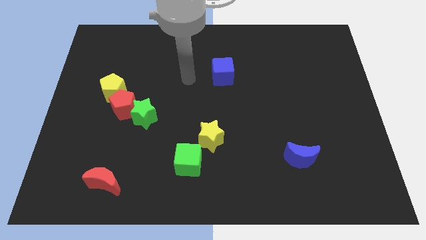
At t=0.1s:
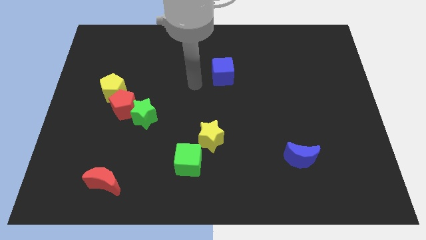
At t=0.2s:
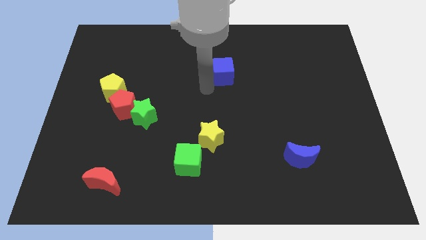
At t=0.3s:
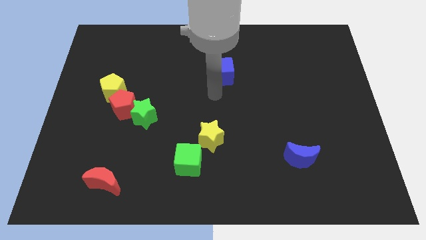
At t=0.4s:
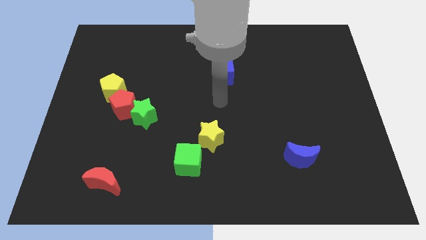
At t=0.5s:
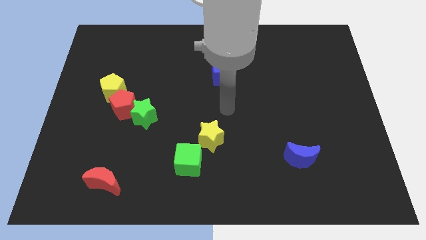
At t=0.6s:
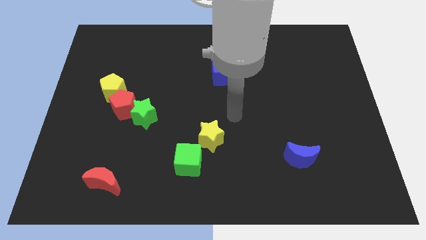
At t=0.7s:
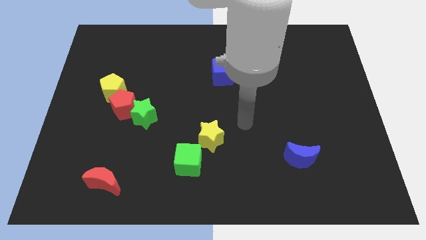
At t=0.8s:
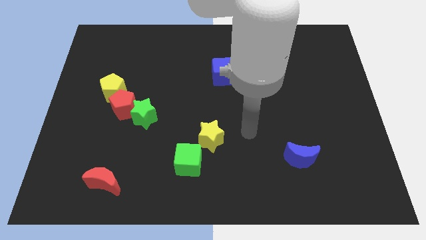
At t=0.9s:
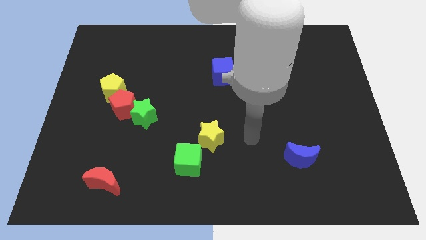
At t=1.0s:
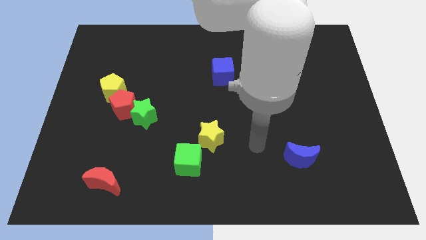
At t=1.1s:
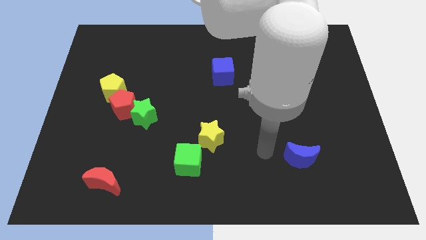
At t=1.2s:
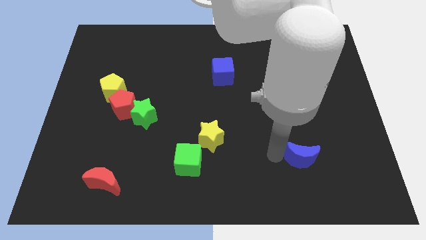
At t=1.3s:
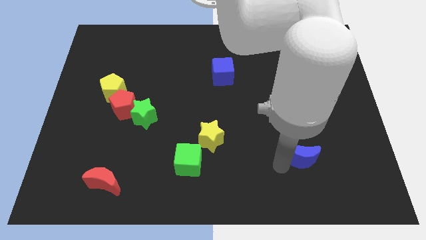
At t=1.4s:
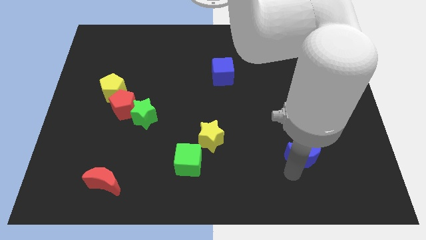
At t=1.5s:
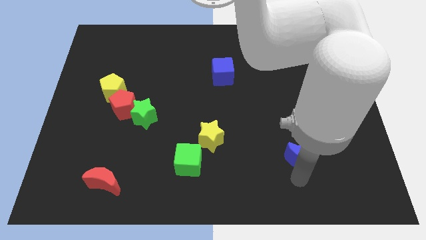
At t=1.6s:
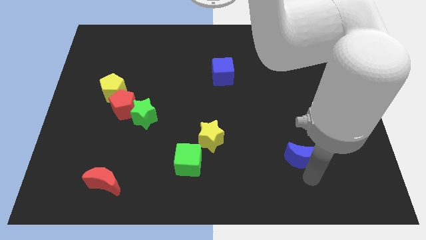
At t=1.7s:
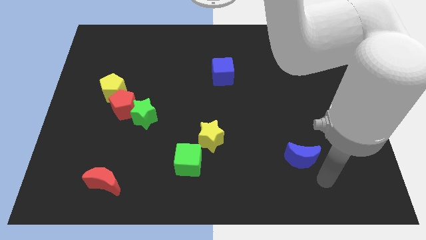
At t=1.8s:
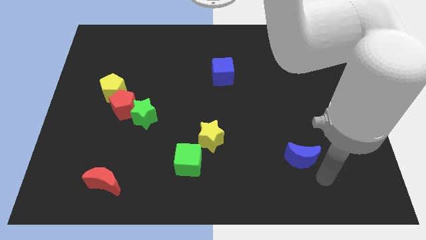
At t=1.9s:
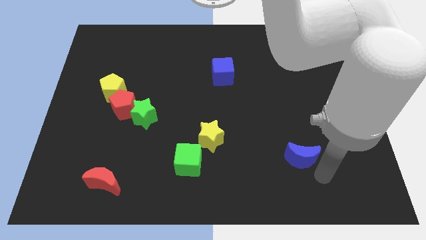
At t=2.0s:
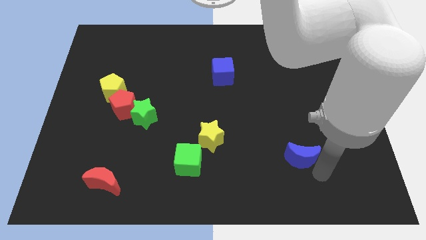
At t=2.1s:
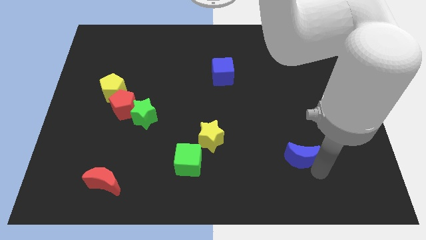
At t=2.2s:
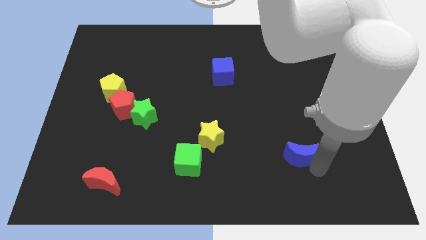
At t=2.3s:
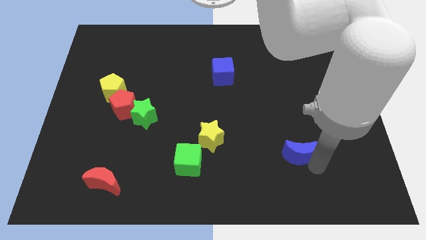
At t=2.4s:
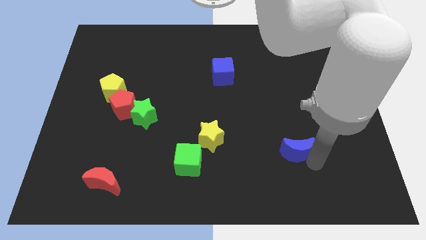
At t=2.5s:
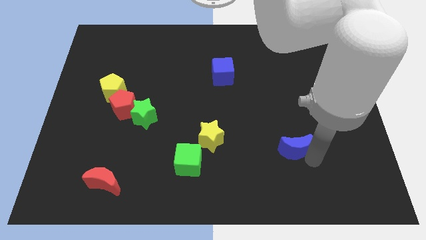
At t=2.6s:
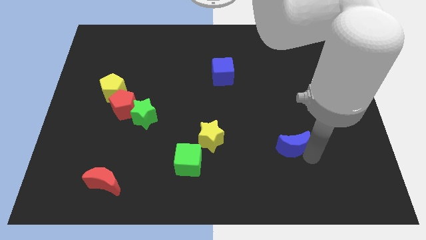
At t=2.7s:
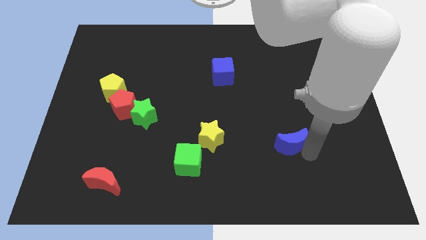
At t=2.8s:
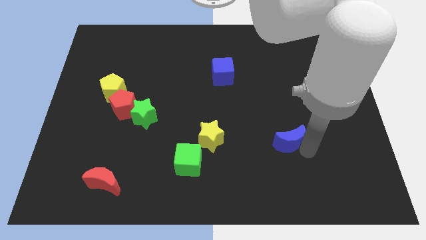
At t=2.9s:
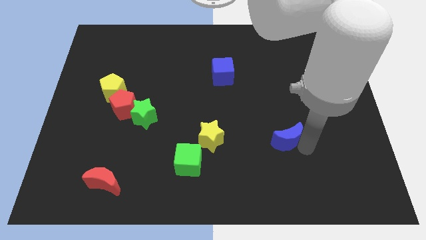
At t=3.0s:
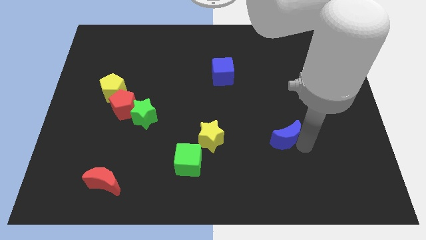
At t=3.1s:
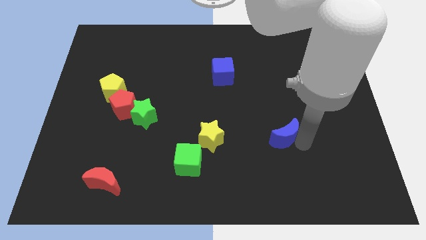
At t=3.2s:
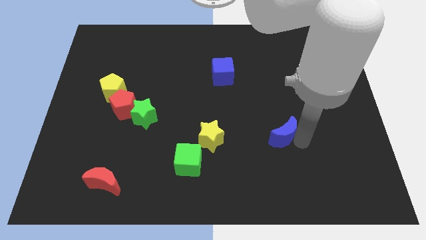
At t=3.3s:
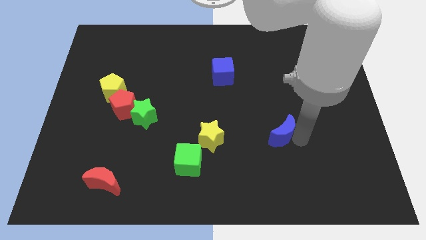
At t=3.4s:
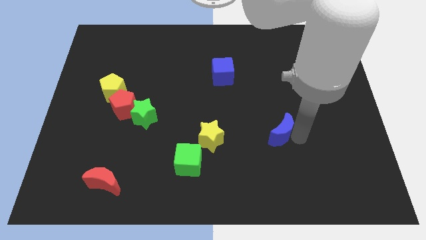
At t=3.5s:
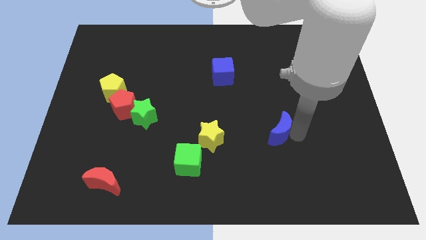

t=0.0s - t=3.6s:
slide the blue moon slightly diagonally up and to the left

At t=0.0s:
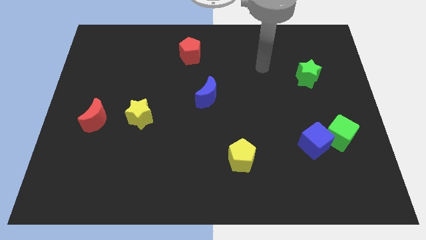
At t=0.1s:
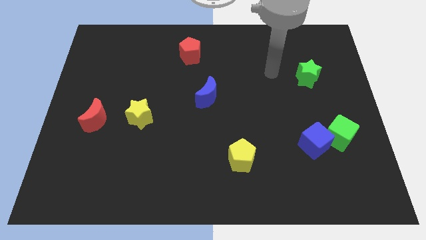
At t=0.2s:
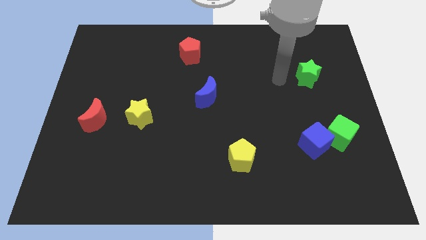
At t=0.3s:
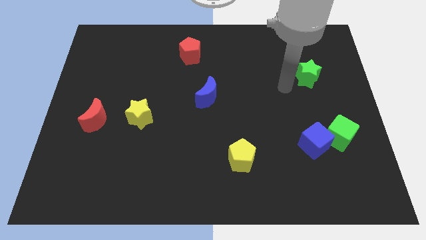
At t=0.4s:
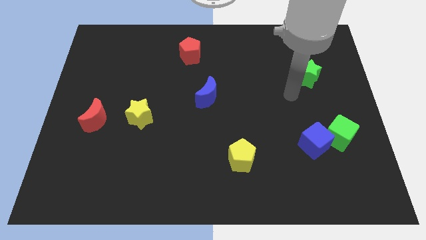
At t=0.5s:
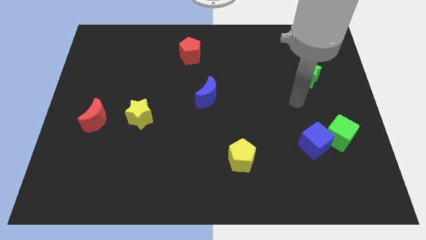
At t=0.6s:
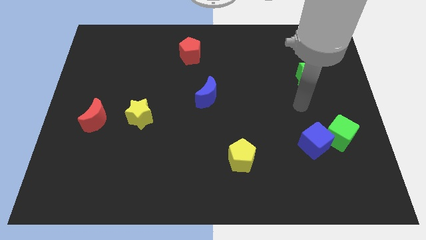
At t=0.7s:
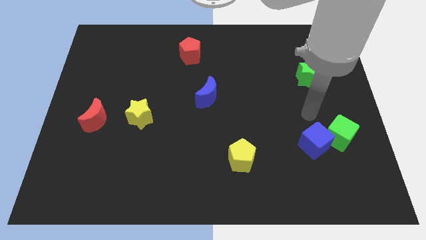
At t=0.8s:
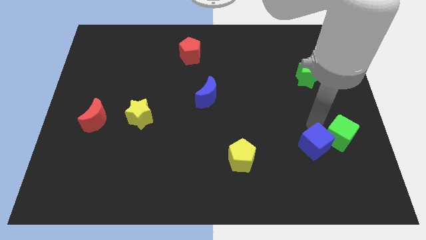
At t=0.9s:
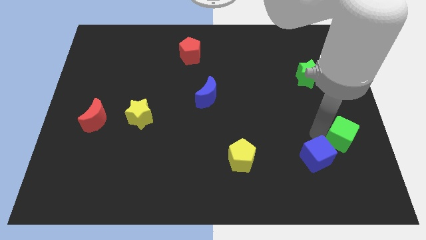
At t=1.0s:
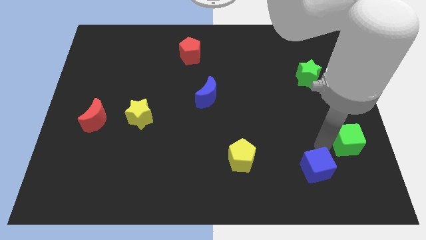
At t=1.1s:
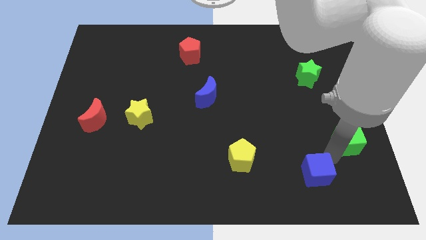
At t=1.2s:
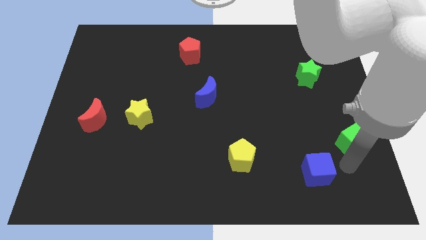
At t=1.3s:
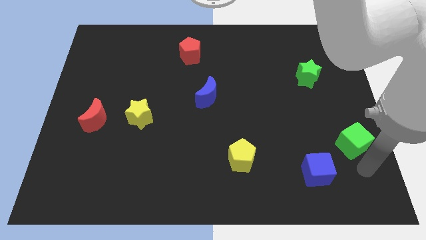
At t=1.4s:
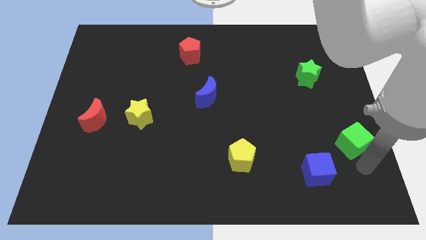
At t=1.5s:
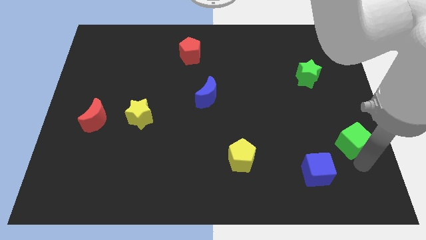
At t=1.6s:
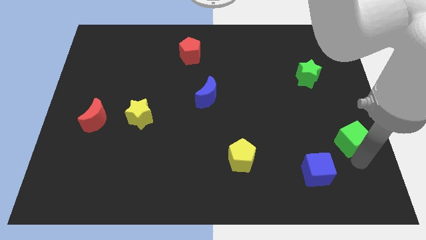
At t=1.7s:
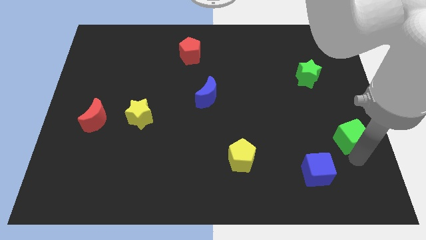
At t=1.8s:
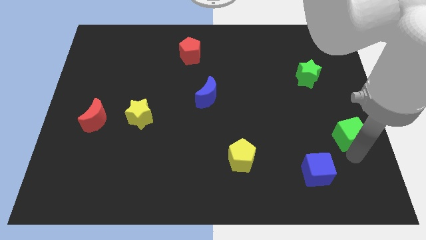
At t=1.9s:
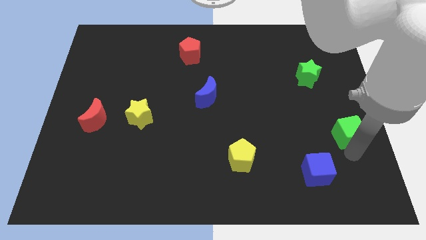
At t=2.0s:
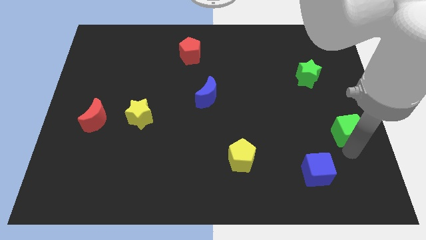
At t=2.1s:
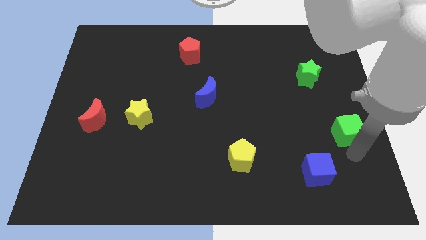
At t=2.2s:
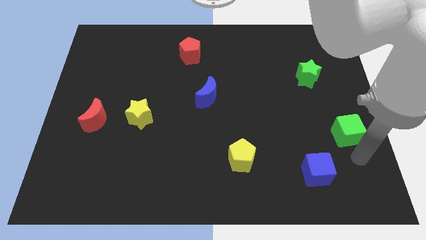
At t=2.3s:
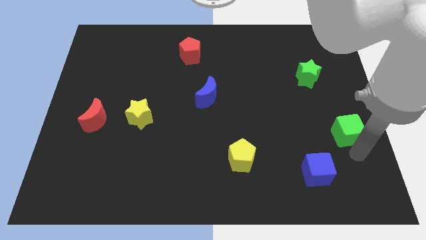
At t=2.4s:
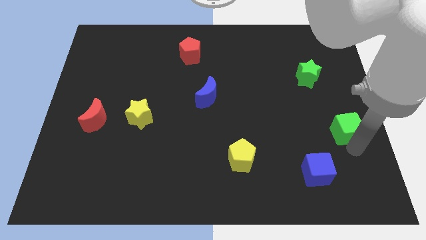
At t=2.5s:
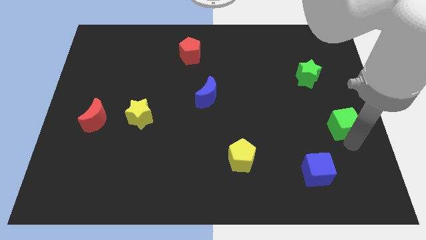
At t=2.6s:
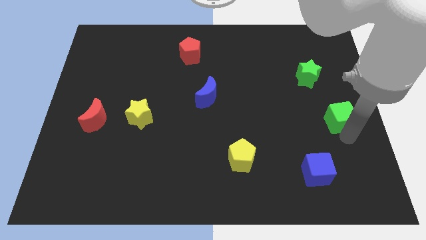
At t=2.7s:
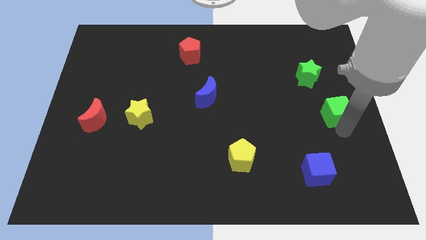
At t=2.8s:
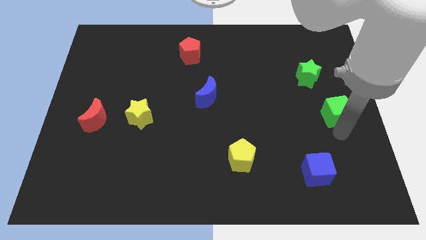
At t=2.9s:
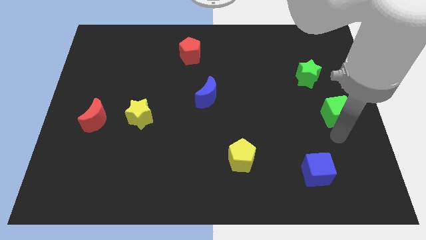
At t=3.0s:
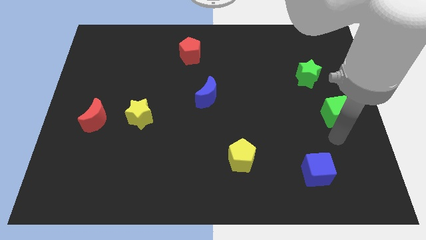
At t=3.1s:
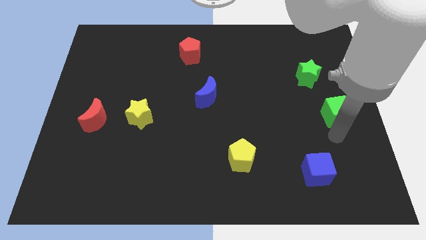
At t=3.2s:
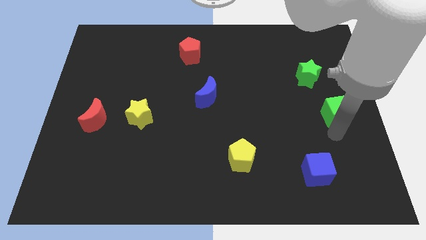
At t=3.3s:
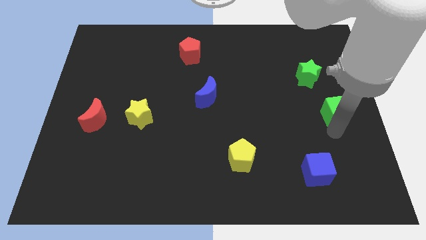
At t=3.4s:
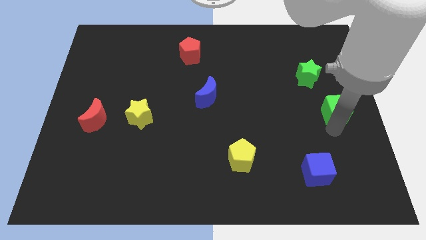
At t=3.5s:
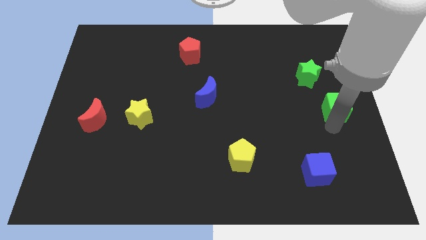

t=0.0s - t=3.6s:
push the green cube a little upwards

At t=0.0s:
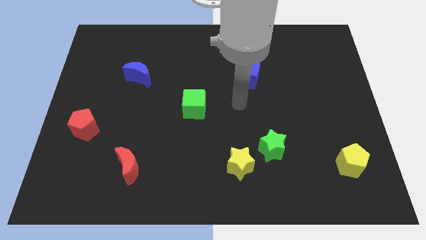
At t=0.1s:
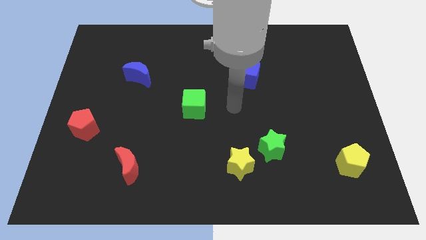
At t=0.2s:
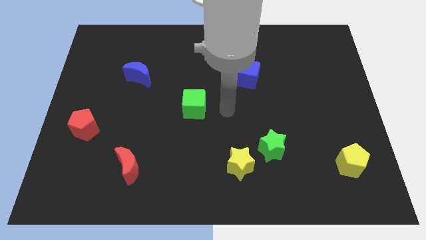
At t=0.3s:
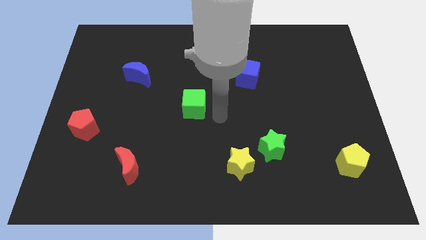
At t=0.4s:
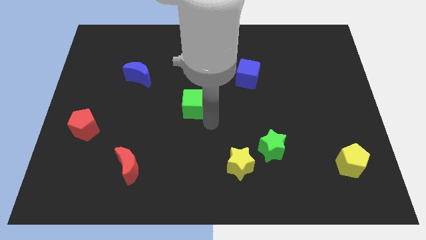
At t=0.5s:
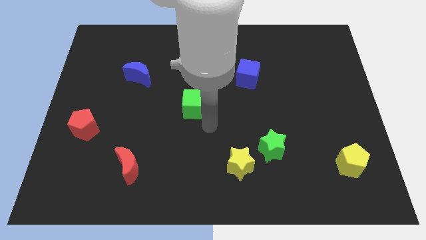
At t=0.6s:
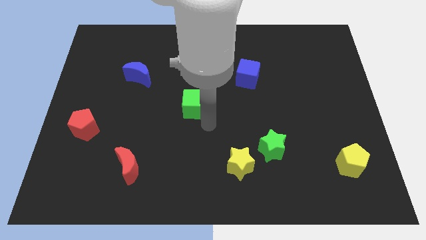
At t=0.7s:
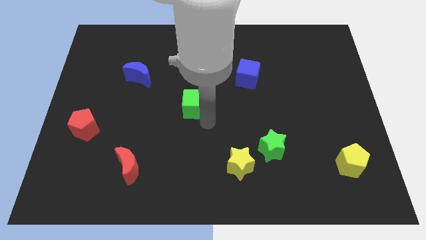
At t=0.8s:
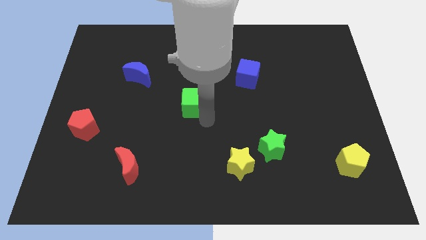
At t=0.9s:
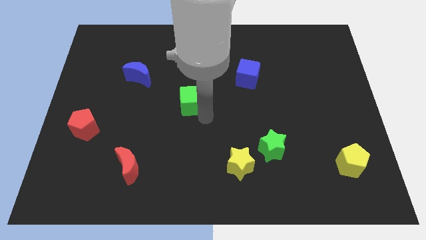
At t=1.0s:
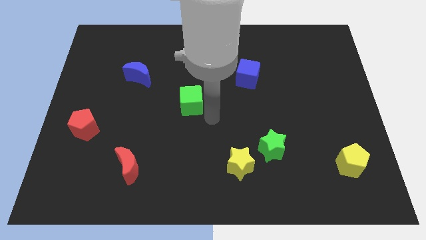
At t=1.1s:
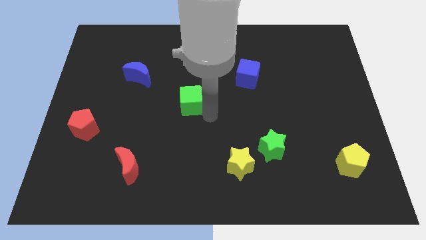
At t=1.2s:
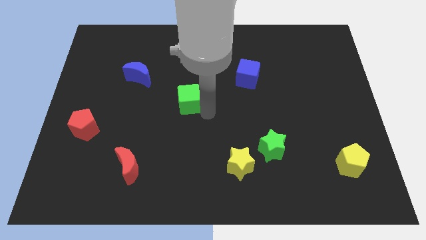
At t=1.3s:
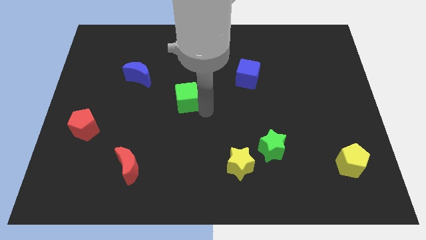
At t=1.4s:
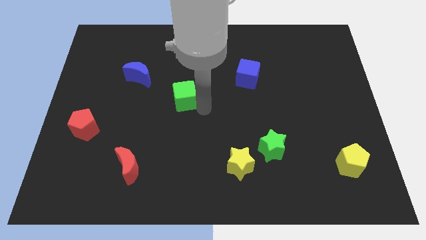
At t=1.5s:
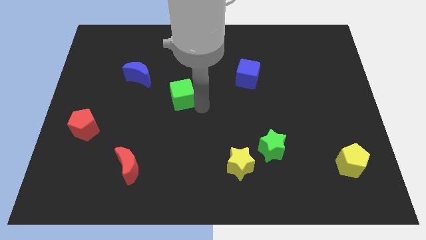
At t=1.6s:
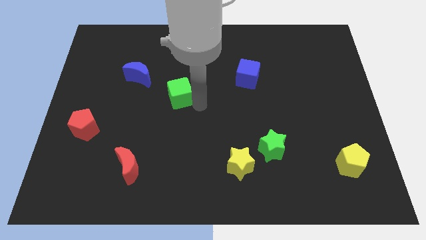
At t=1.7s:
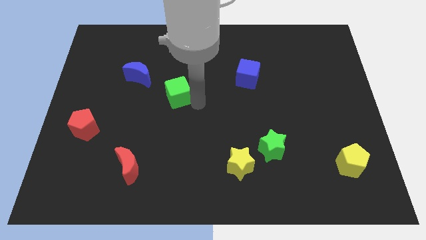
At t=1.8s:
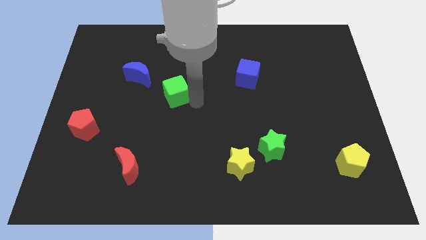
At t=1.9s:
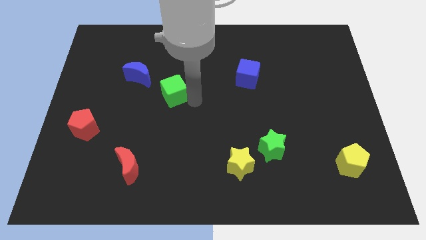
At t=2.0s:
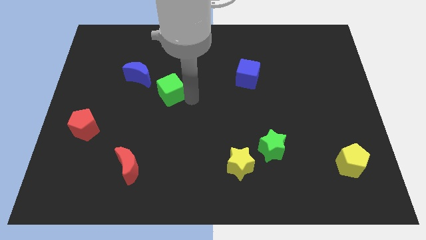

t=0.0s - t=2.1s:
push the green cube somewhat up and left diagonally
